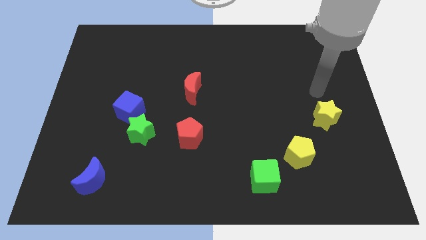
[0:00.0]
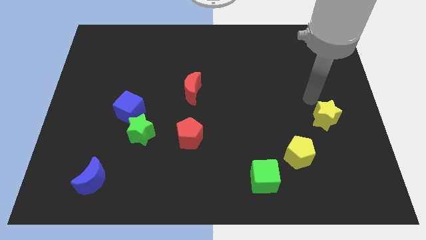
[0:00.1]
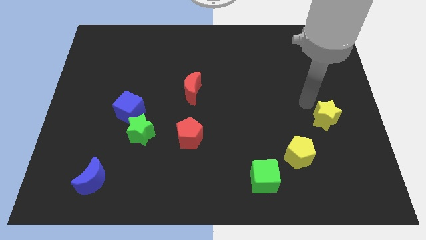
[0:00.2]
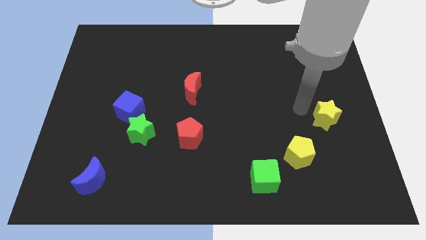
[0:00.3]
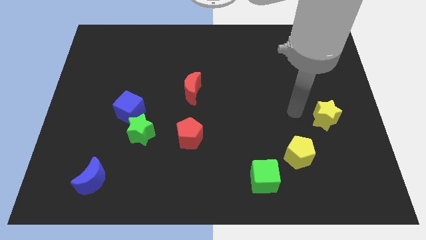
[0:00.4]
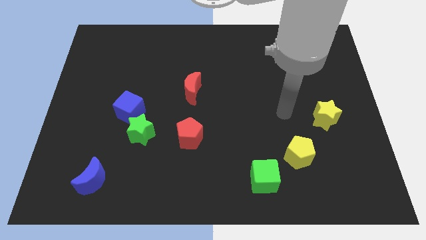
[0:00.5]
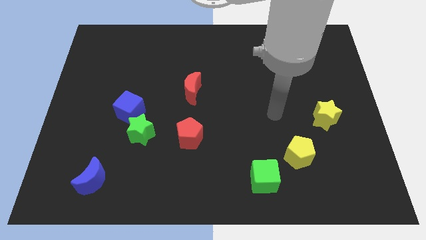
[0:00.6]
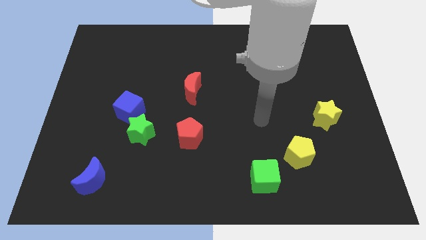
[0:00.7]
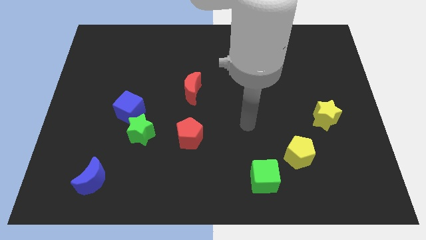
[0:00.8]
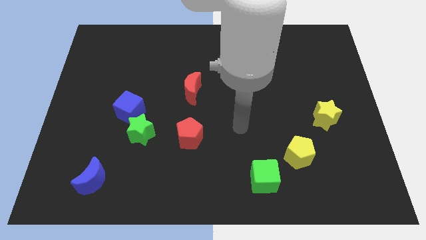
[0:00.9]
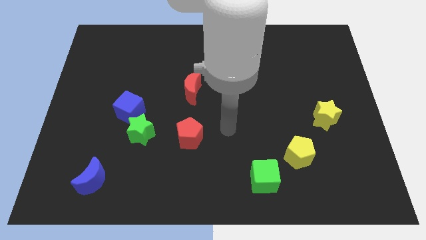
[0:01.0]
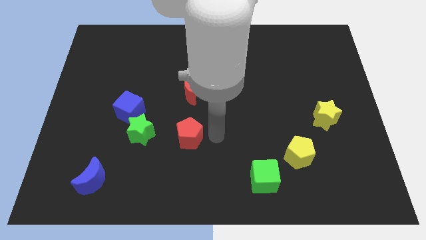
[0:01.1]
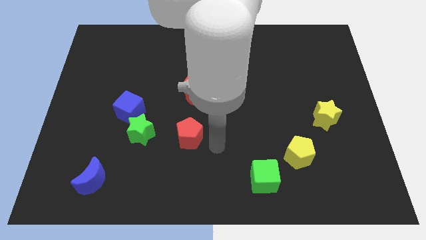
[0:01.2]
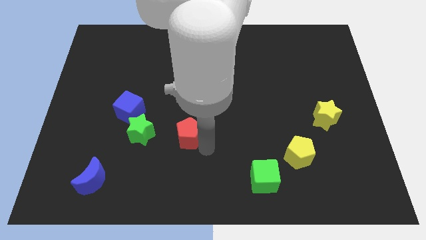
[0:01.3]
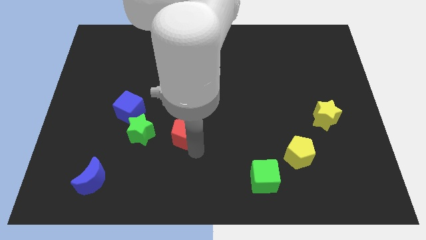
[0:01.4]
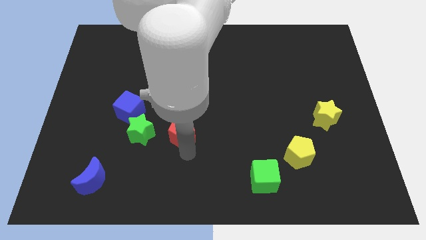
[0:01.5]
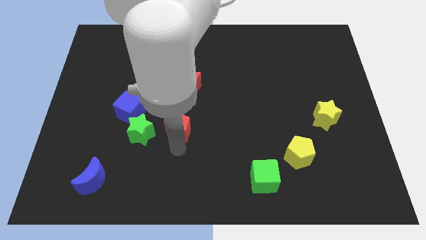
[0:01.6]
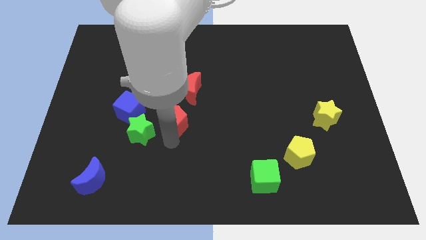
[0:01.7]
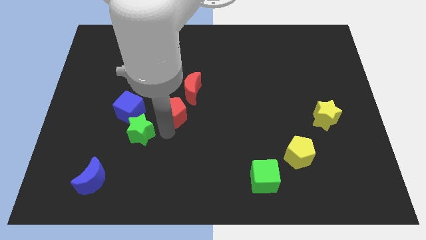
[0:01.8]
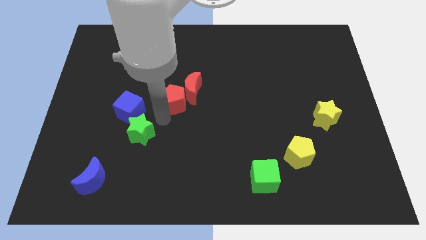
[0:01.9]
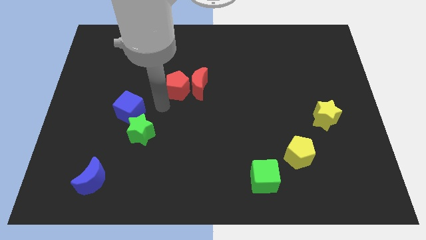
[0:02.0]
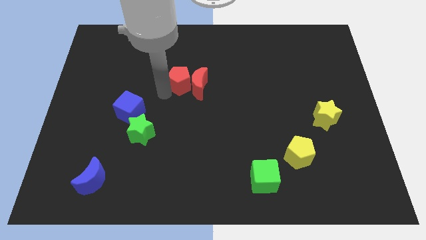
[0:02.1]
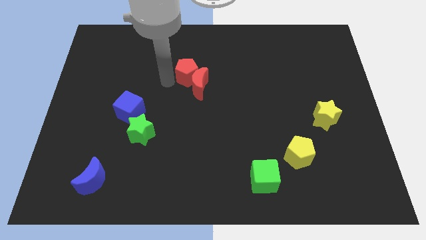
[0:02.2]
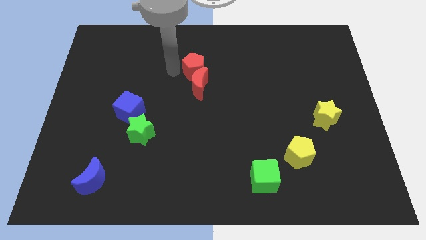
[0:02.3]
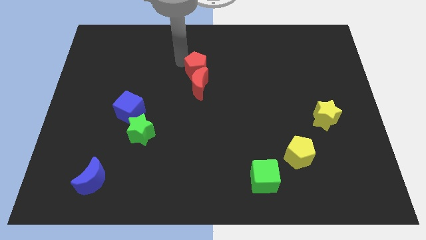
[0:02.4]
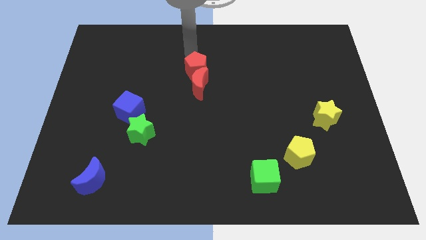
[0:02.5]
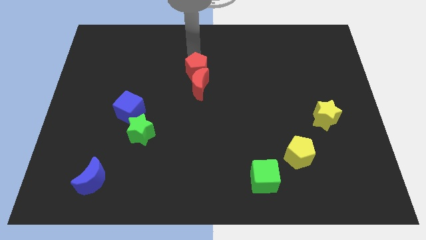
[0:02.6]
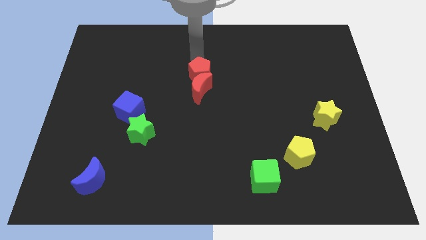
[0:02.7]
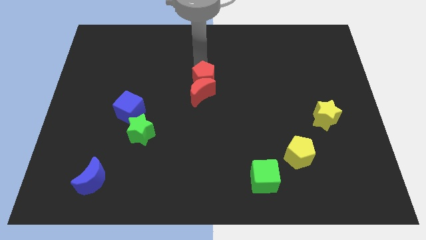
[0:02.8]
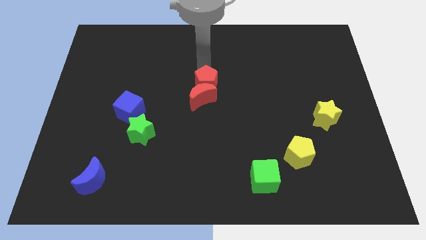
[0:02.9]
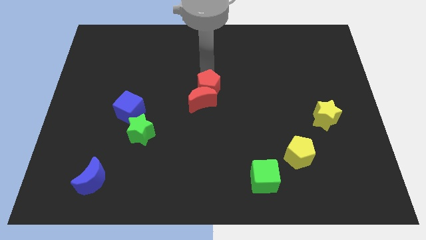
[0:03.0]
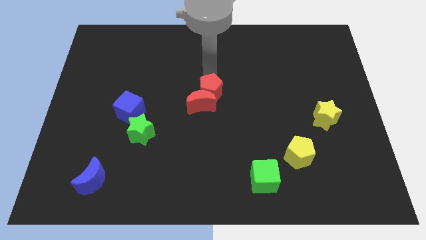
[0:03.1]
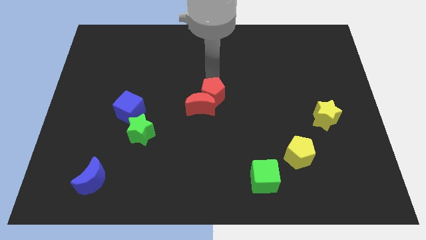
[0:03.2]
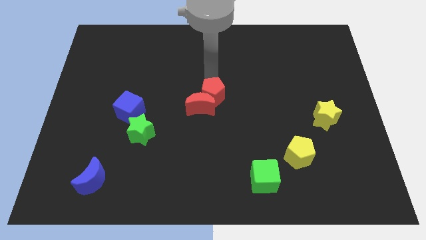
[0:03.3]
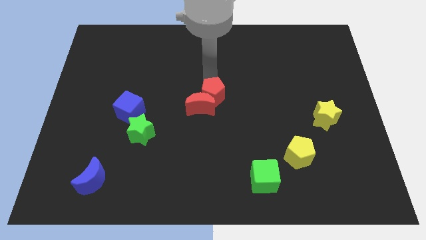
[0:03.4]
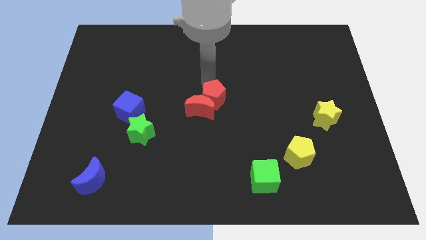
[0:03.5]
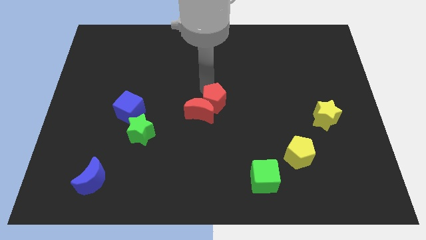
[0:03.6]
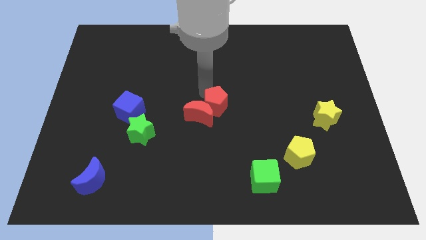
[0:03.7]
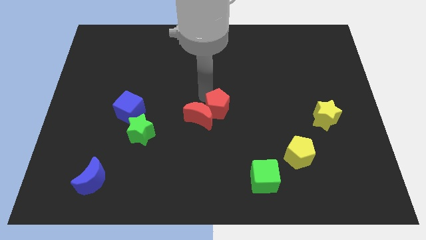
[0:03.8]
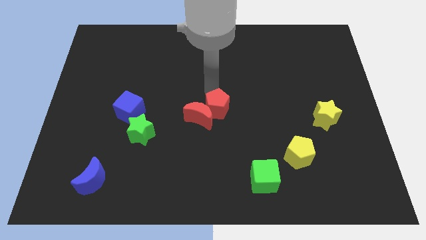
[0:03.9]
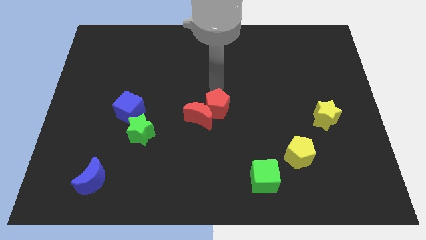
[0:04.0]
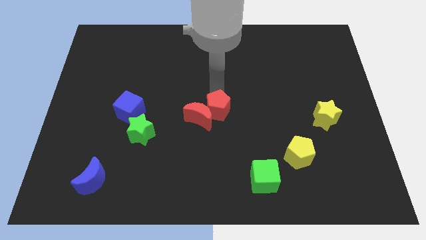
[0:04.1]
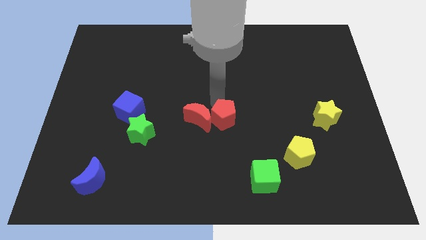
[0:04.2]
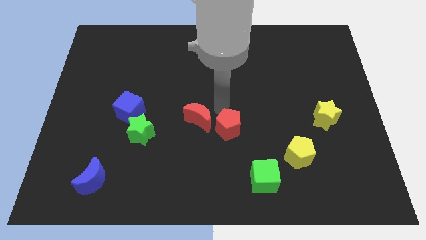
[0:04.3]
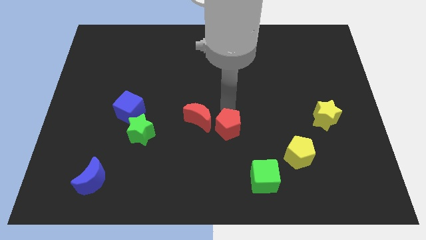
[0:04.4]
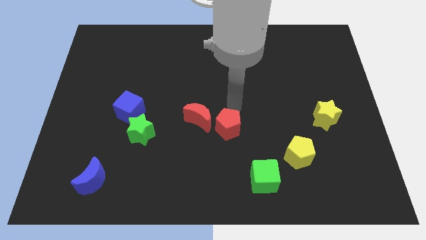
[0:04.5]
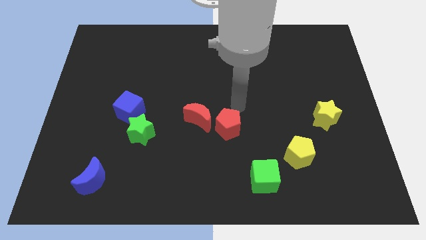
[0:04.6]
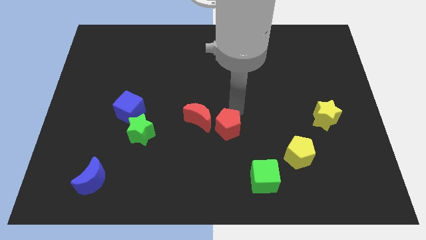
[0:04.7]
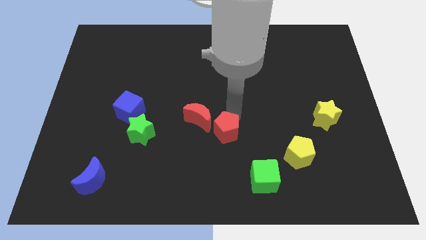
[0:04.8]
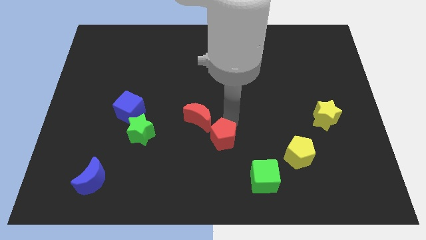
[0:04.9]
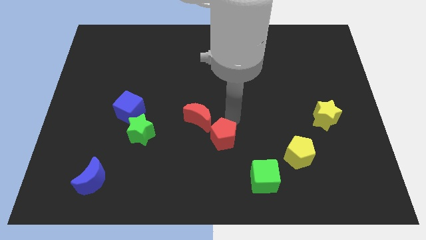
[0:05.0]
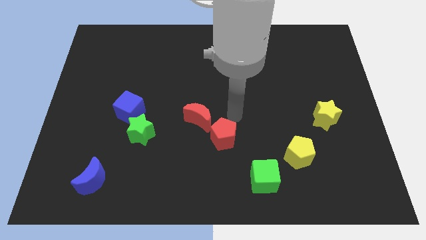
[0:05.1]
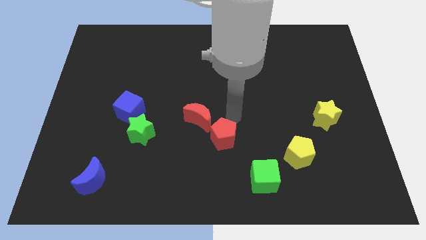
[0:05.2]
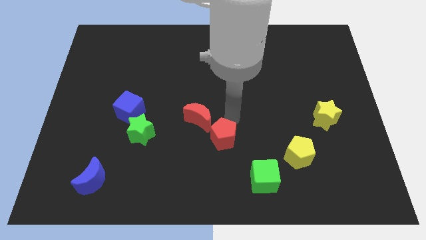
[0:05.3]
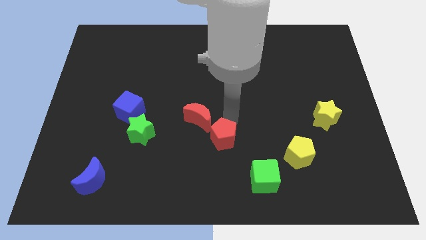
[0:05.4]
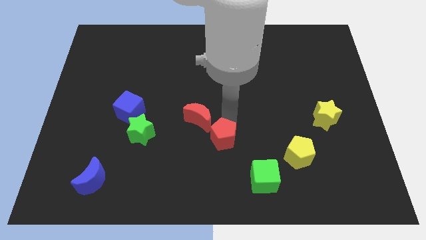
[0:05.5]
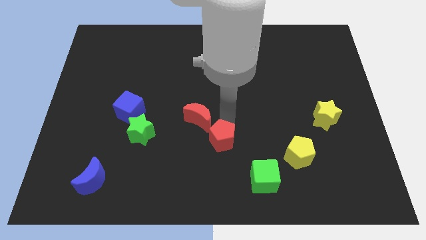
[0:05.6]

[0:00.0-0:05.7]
put the red pentagon to the top left side of the green cube

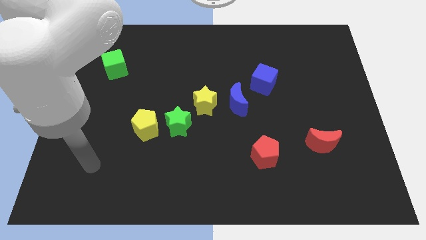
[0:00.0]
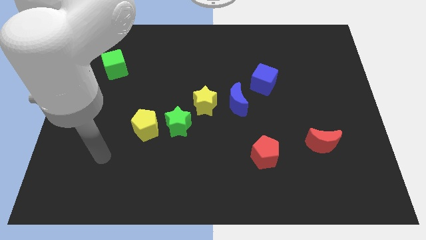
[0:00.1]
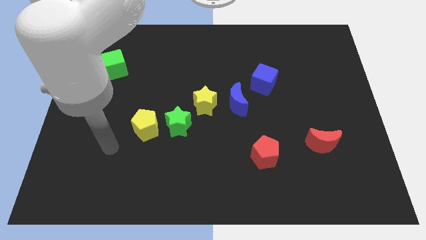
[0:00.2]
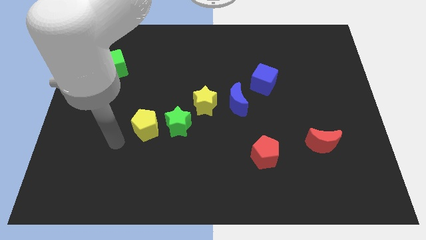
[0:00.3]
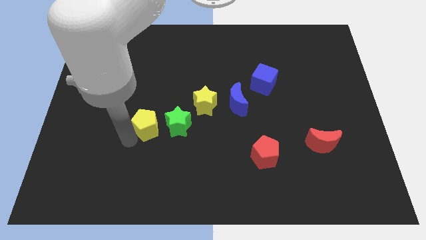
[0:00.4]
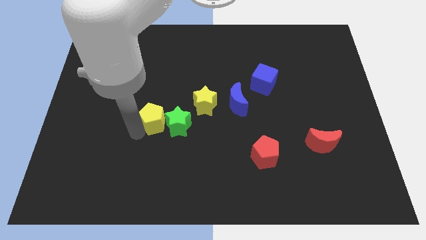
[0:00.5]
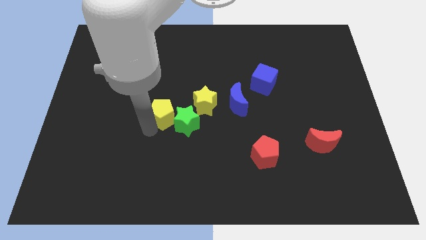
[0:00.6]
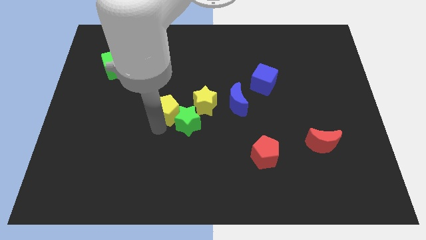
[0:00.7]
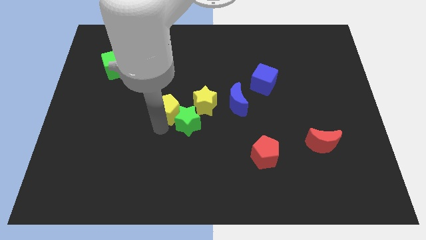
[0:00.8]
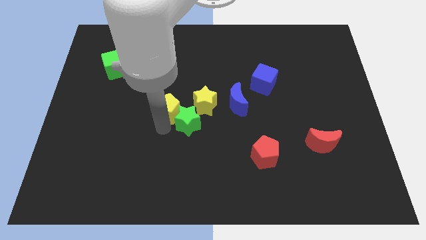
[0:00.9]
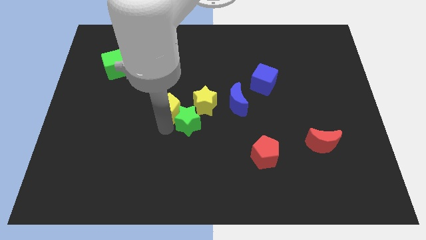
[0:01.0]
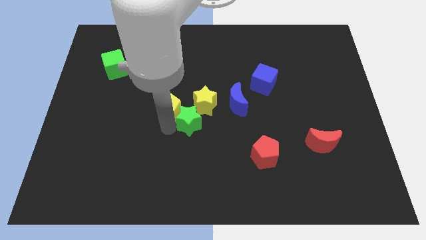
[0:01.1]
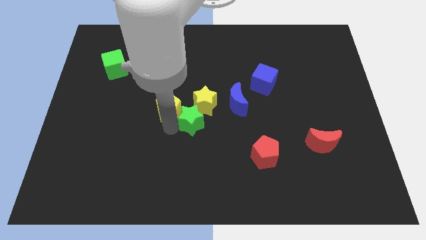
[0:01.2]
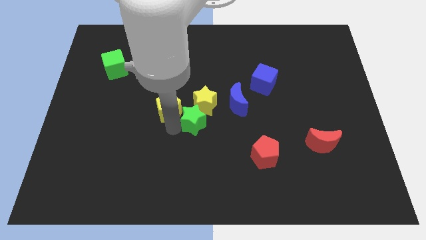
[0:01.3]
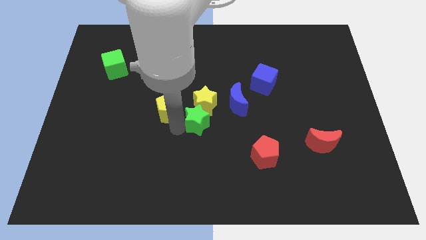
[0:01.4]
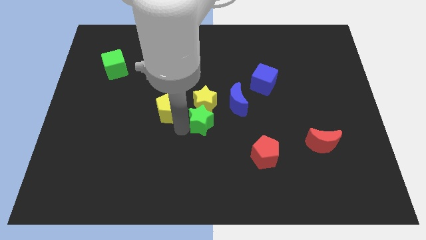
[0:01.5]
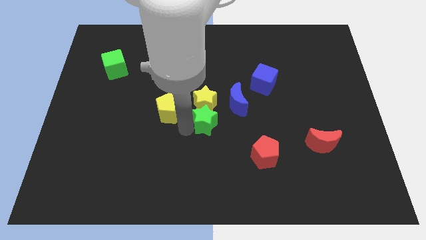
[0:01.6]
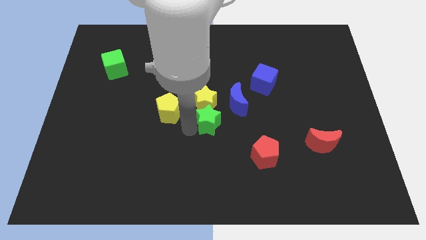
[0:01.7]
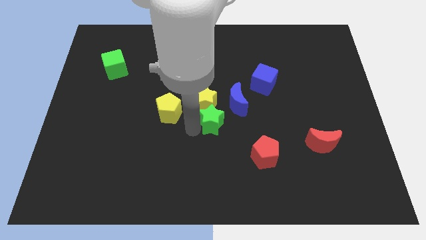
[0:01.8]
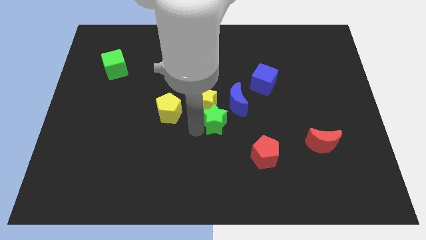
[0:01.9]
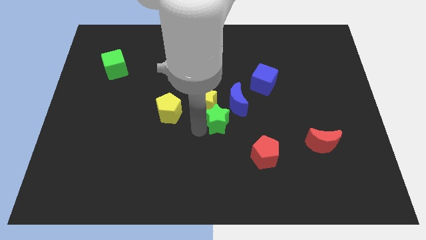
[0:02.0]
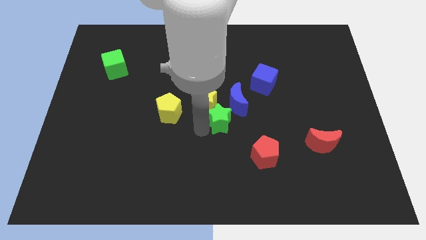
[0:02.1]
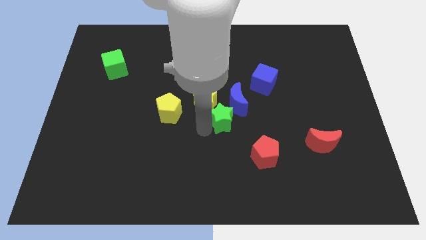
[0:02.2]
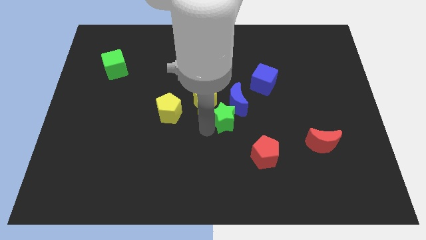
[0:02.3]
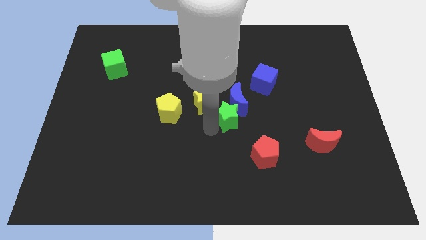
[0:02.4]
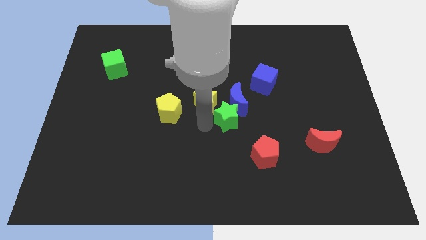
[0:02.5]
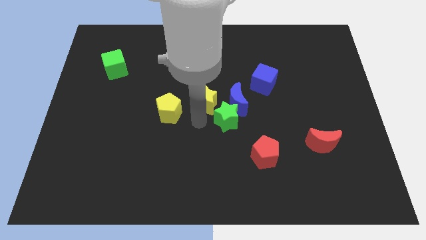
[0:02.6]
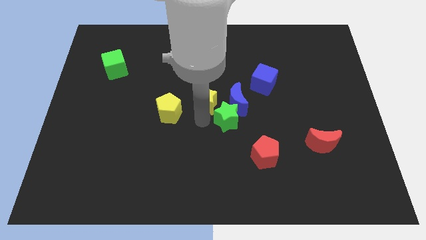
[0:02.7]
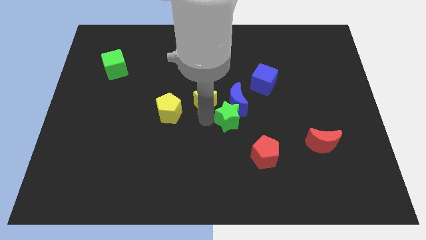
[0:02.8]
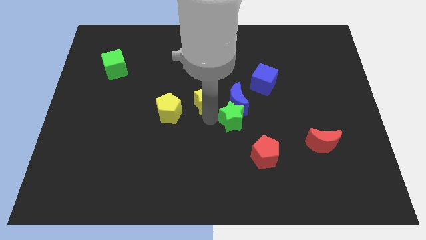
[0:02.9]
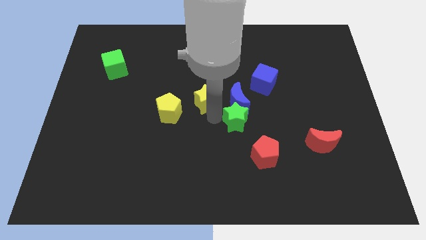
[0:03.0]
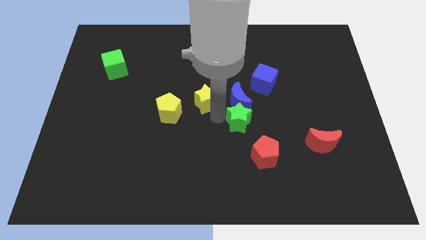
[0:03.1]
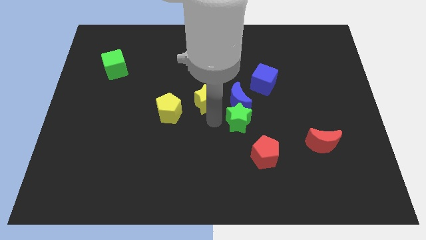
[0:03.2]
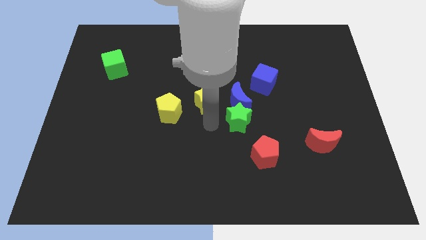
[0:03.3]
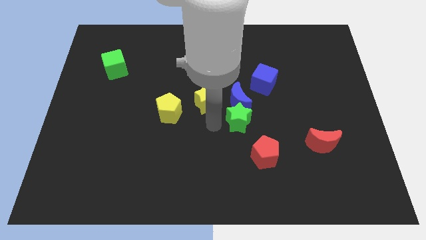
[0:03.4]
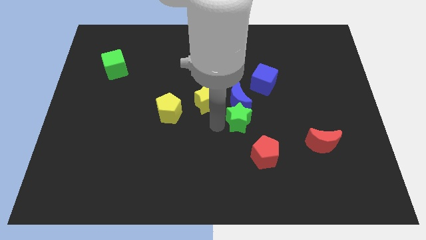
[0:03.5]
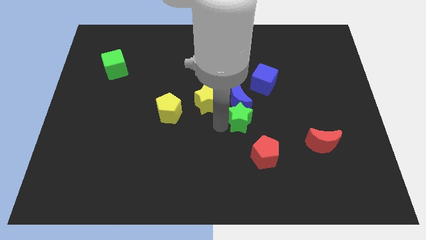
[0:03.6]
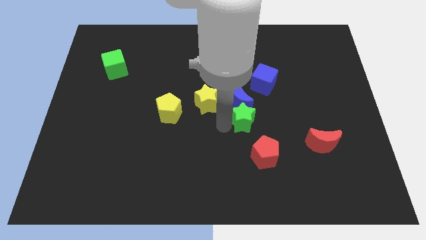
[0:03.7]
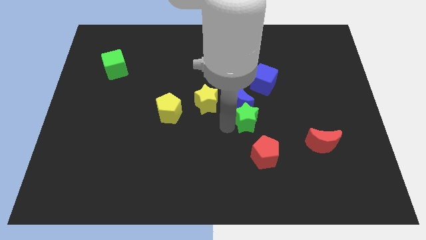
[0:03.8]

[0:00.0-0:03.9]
move the green star to the bottom side of the blue cube
